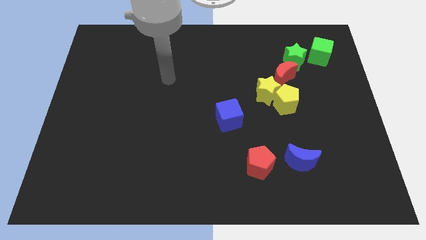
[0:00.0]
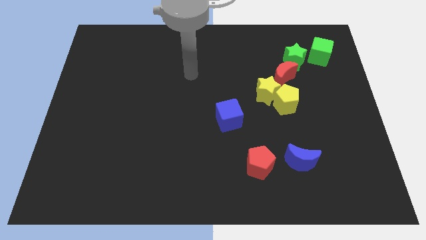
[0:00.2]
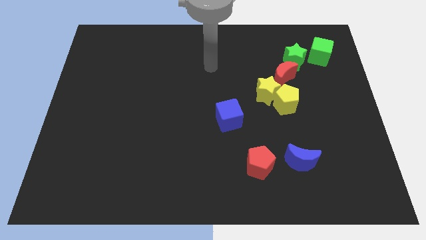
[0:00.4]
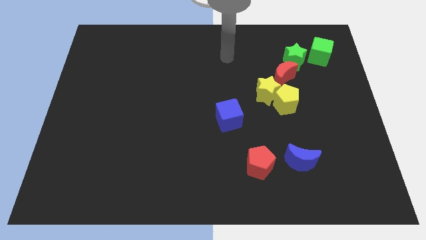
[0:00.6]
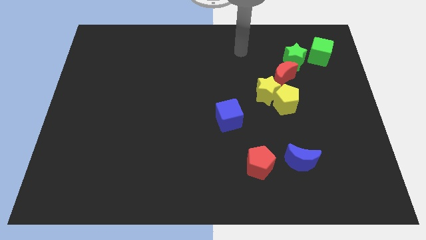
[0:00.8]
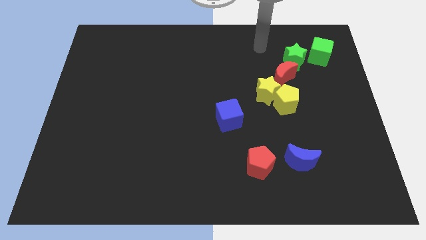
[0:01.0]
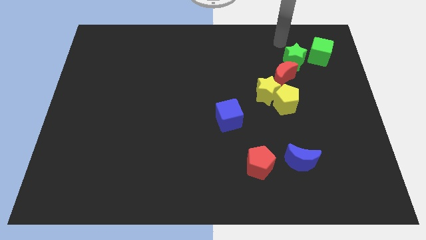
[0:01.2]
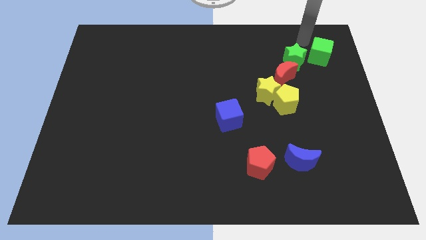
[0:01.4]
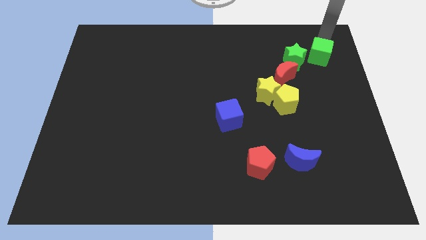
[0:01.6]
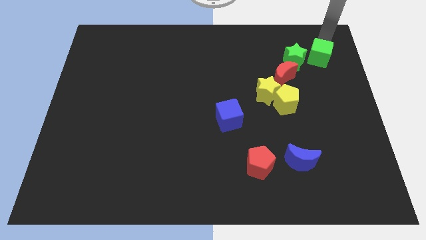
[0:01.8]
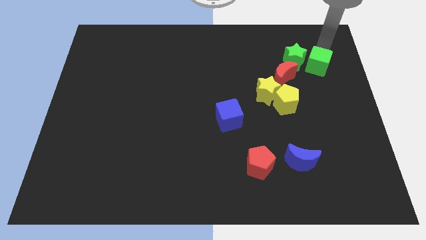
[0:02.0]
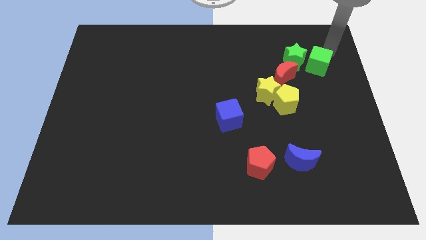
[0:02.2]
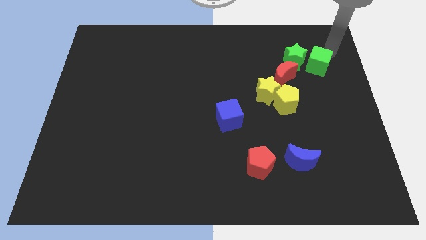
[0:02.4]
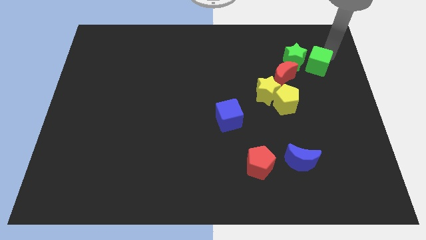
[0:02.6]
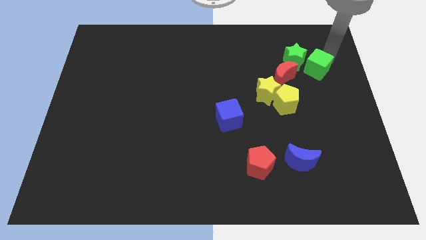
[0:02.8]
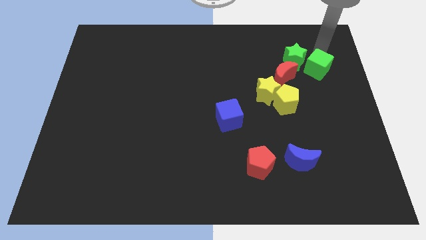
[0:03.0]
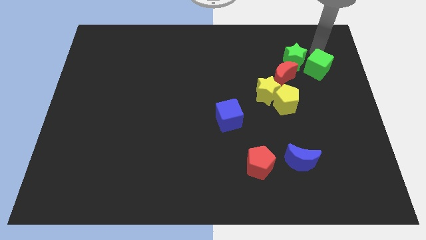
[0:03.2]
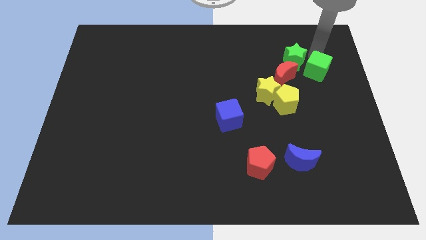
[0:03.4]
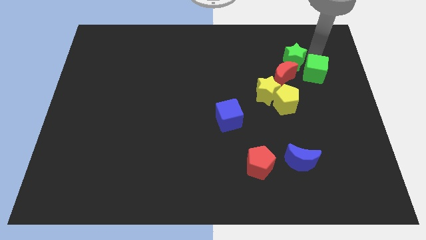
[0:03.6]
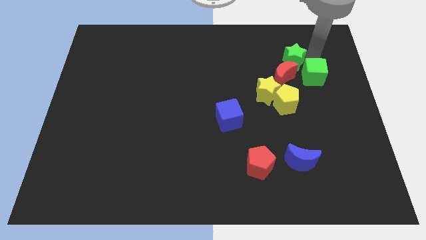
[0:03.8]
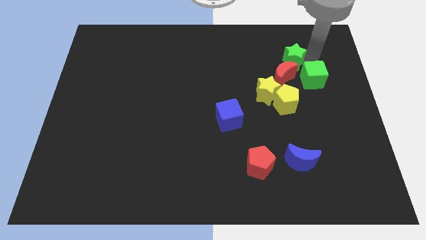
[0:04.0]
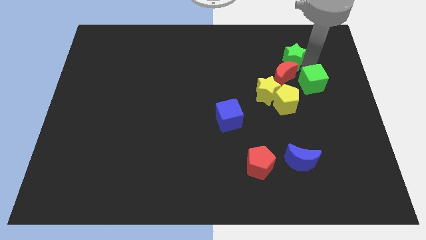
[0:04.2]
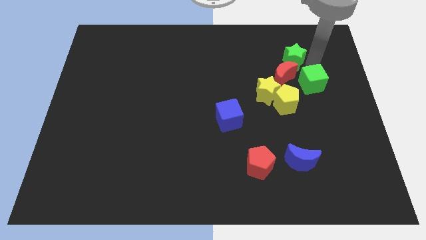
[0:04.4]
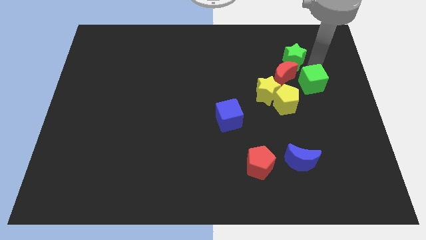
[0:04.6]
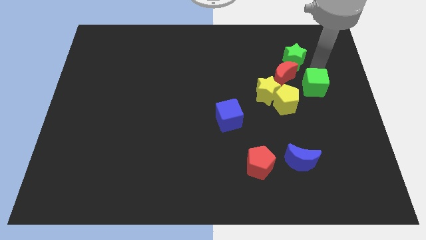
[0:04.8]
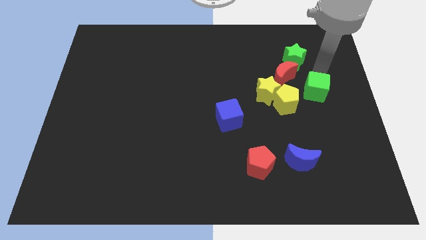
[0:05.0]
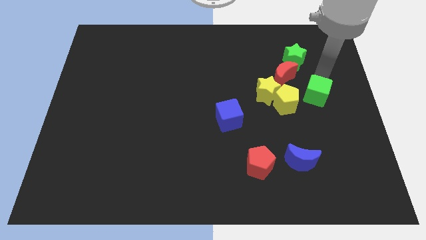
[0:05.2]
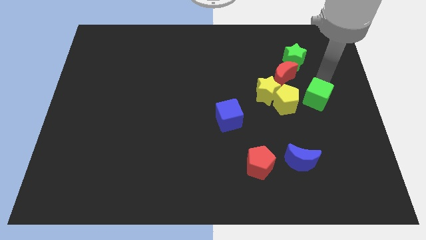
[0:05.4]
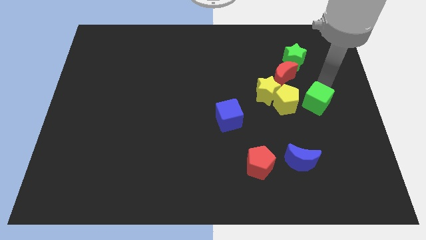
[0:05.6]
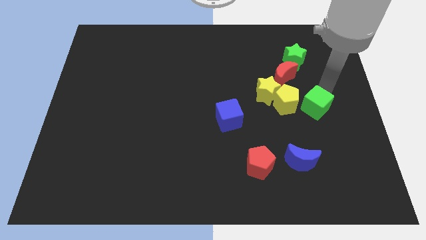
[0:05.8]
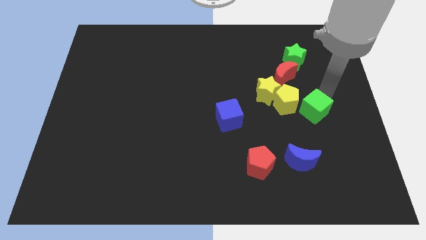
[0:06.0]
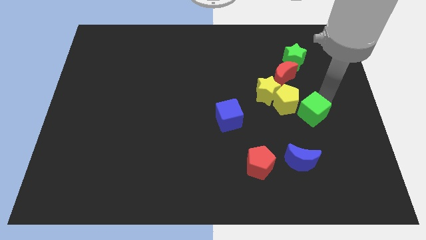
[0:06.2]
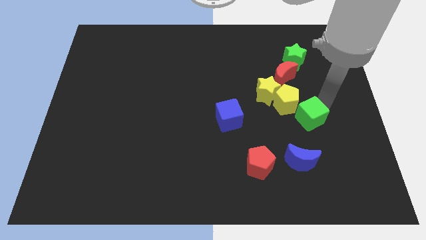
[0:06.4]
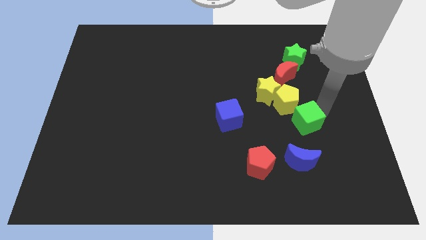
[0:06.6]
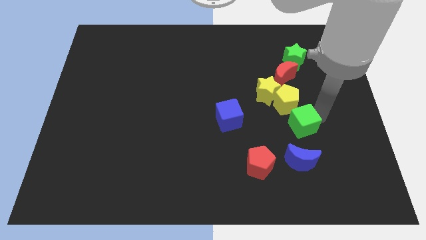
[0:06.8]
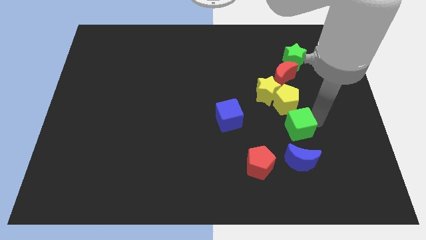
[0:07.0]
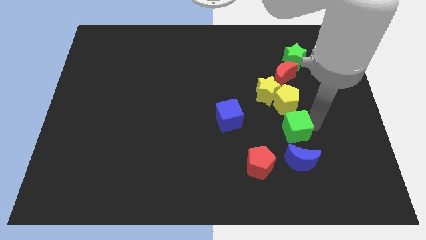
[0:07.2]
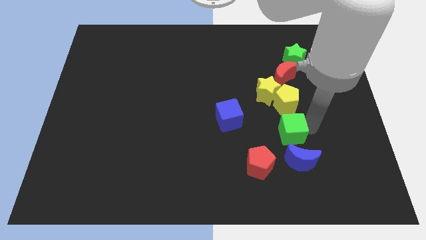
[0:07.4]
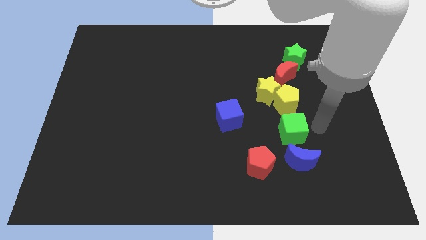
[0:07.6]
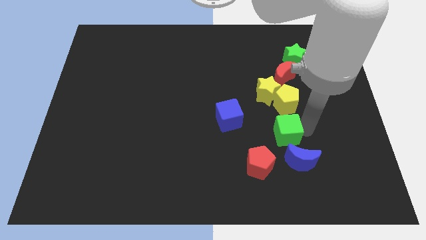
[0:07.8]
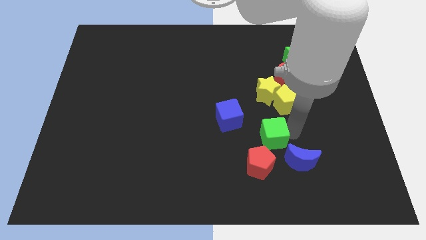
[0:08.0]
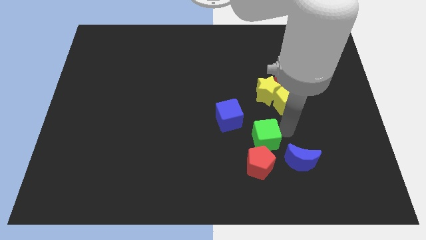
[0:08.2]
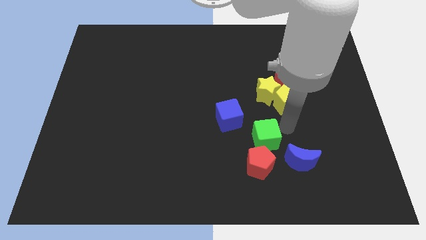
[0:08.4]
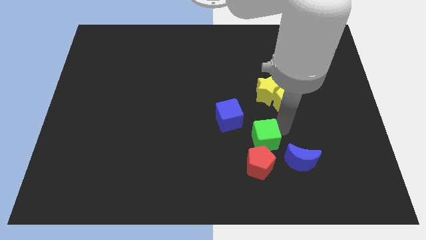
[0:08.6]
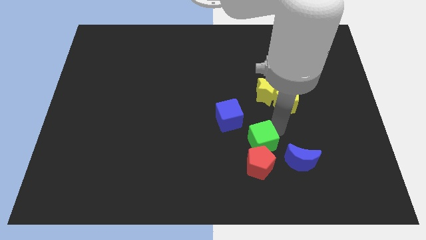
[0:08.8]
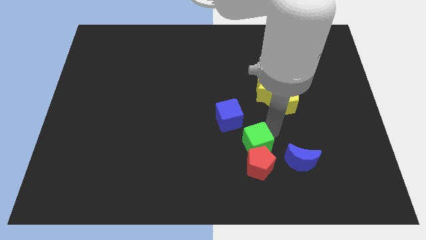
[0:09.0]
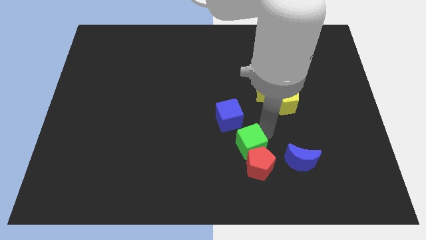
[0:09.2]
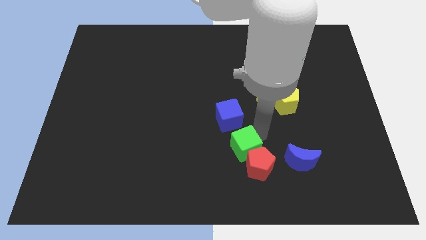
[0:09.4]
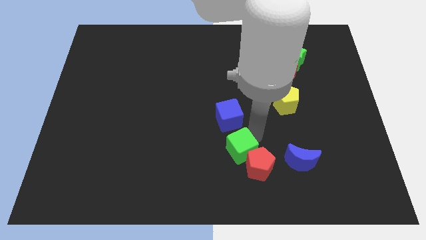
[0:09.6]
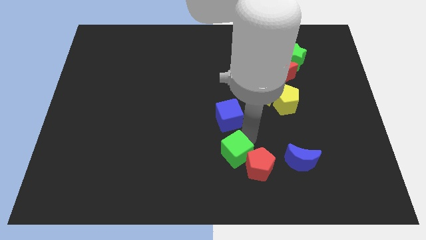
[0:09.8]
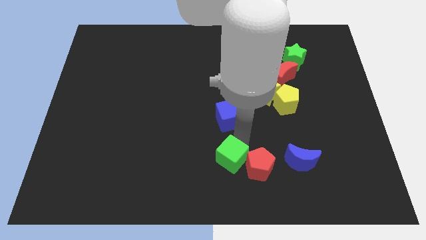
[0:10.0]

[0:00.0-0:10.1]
push the green cube to the bottom

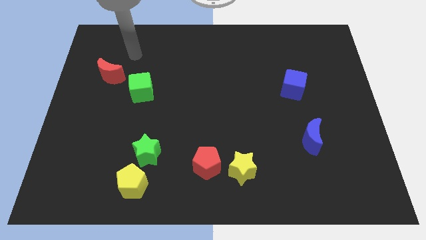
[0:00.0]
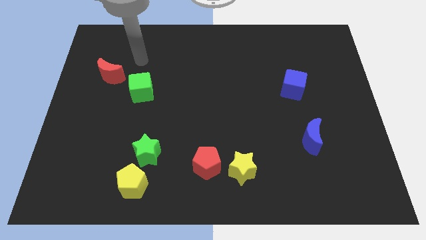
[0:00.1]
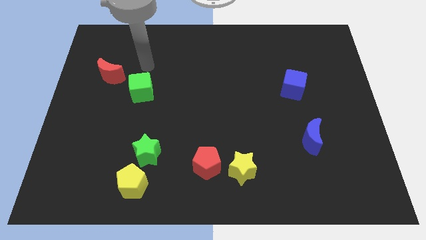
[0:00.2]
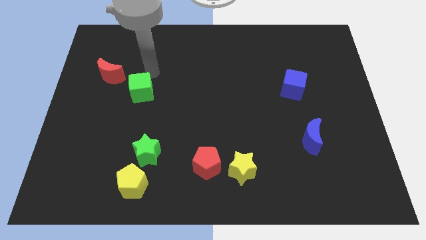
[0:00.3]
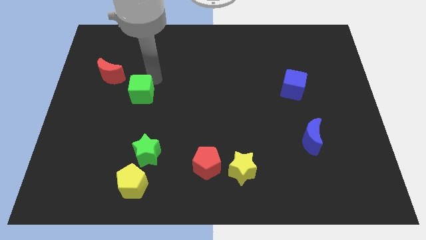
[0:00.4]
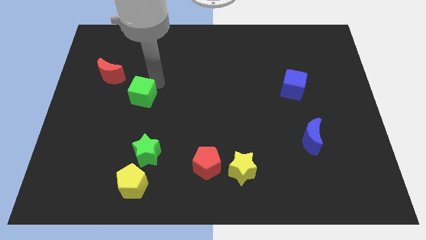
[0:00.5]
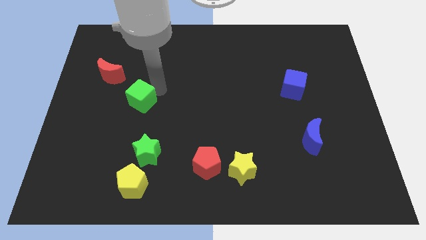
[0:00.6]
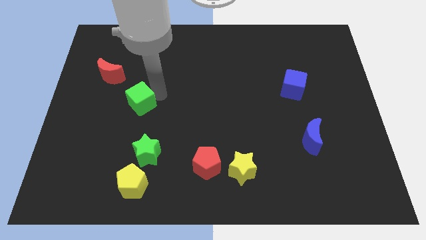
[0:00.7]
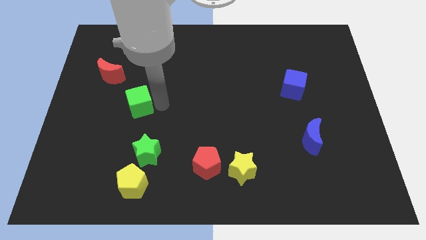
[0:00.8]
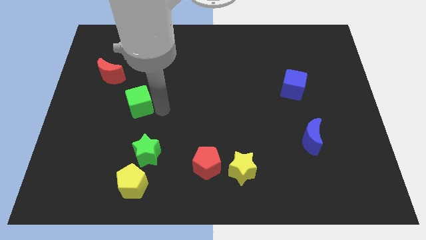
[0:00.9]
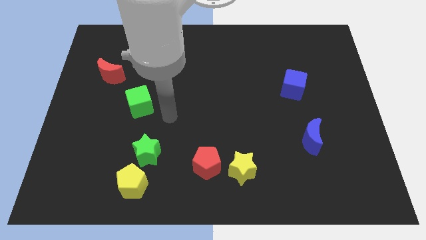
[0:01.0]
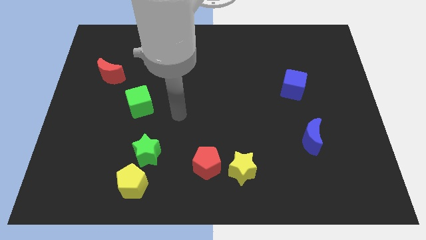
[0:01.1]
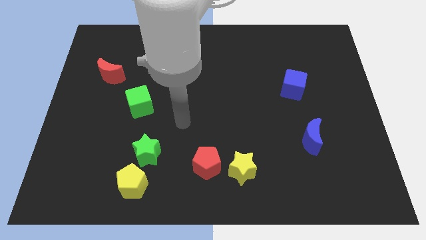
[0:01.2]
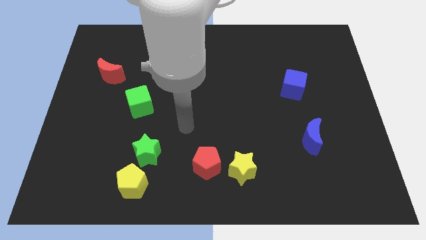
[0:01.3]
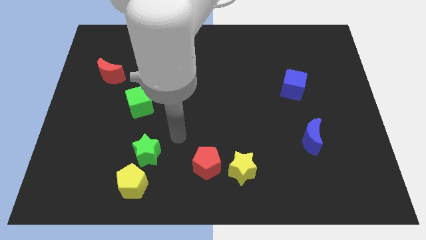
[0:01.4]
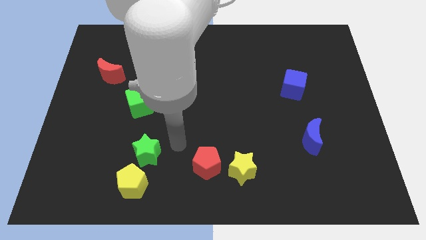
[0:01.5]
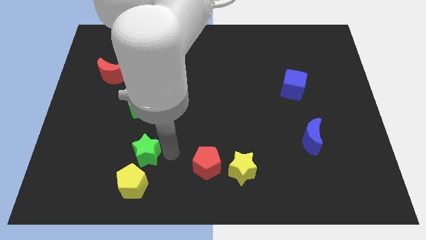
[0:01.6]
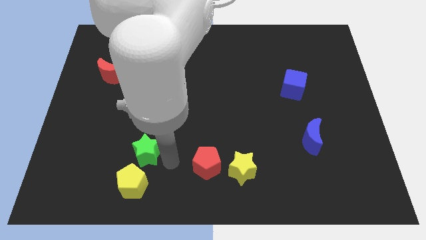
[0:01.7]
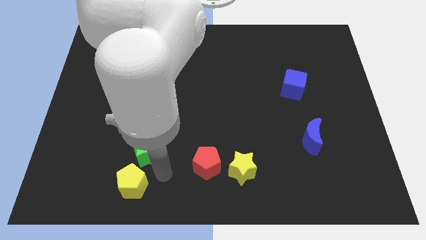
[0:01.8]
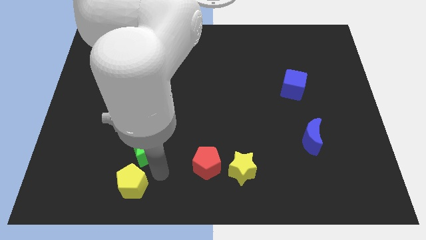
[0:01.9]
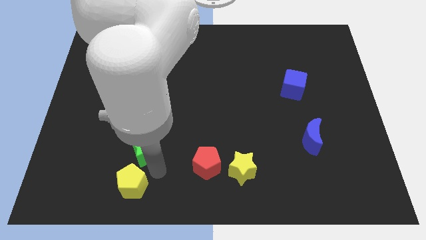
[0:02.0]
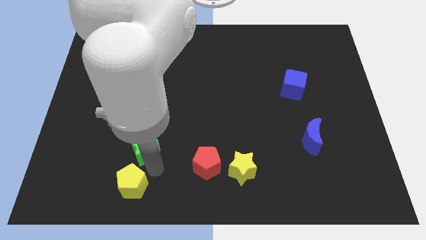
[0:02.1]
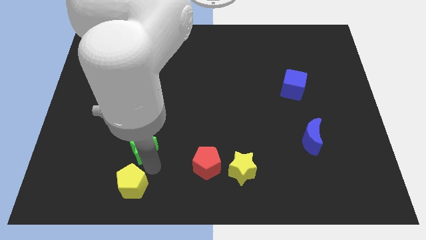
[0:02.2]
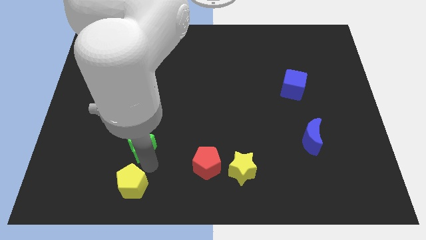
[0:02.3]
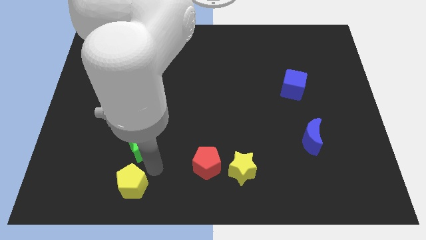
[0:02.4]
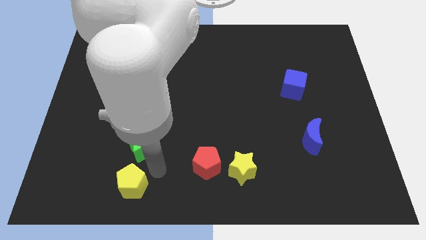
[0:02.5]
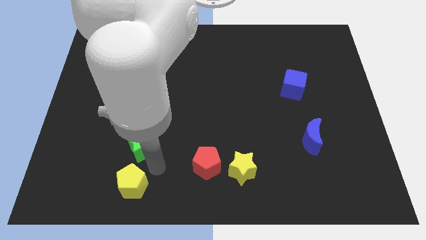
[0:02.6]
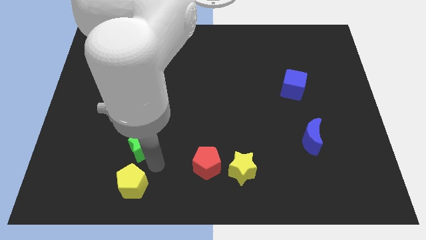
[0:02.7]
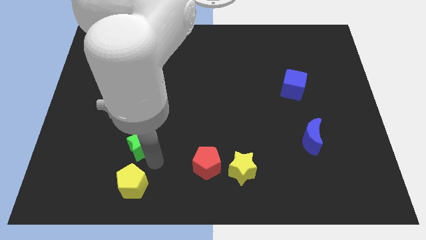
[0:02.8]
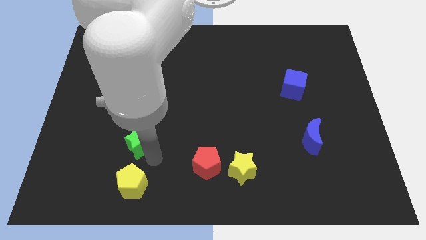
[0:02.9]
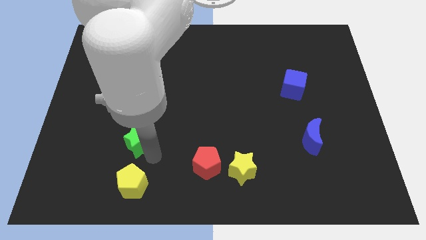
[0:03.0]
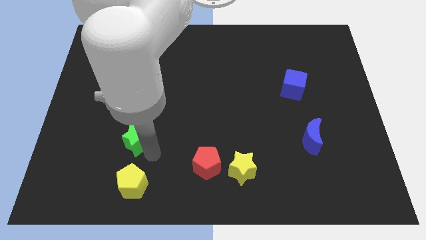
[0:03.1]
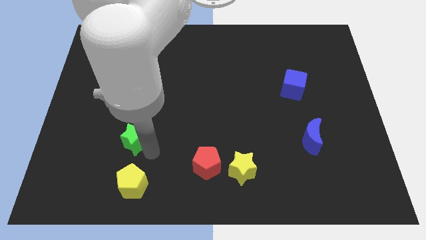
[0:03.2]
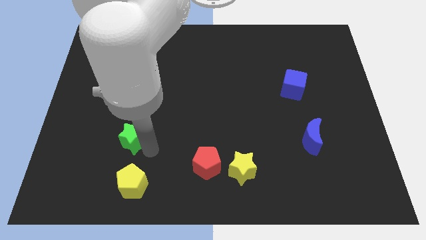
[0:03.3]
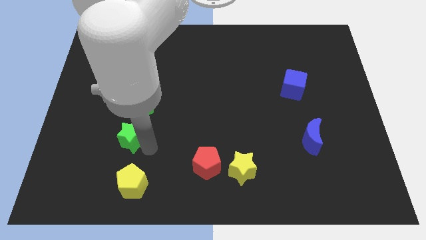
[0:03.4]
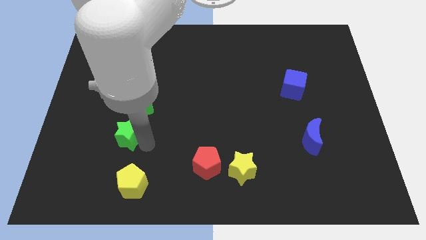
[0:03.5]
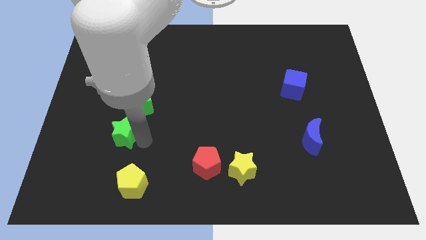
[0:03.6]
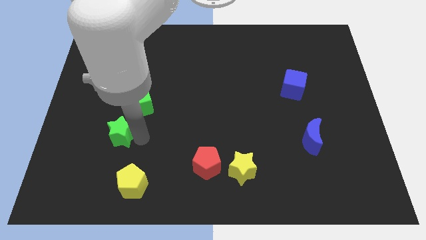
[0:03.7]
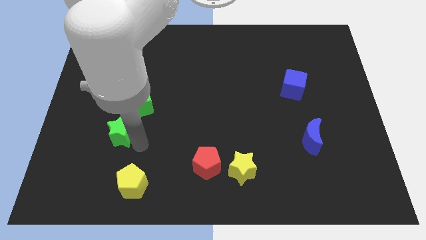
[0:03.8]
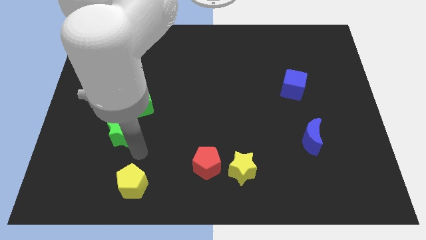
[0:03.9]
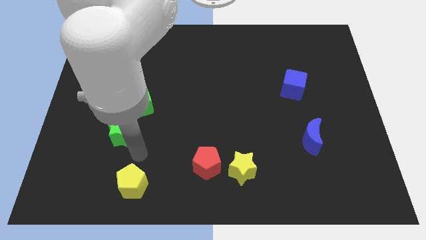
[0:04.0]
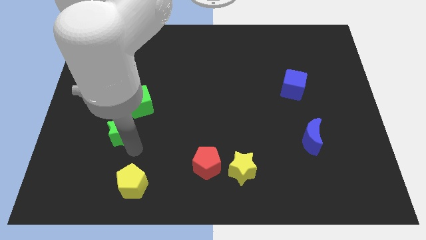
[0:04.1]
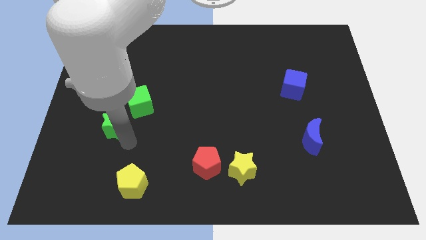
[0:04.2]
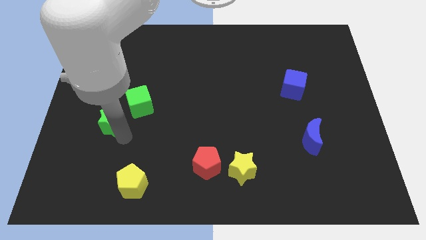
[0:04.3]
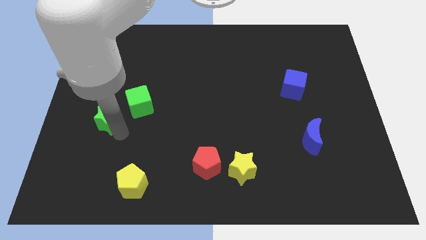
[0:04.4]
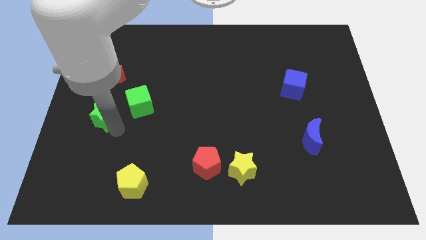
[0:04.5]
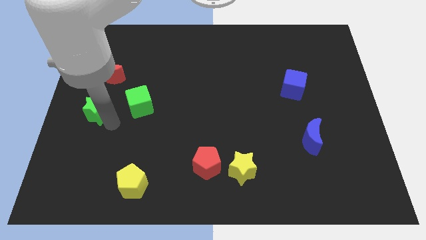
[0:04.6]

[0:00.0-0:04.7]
move the green star to the left side of the board
